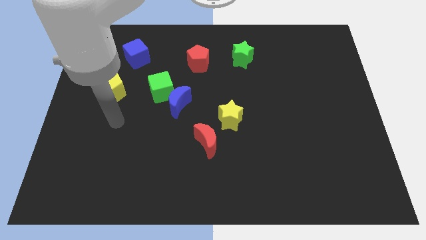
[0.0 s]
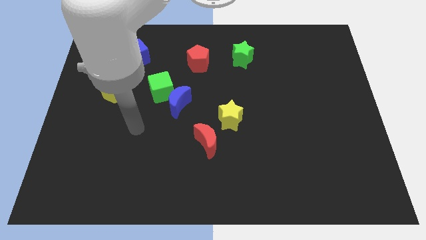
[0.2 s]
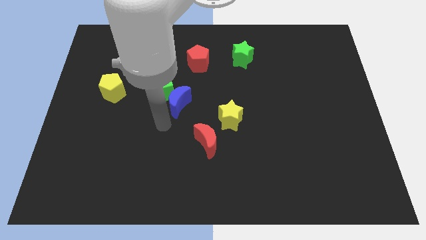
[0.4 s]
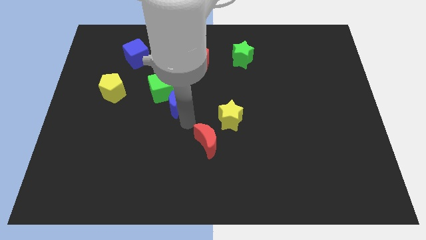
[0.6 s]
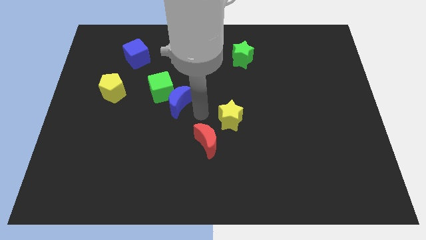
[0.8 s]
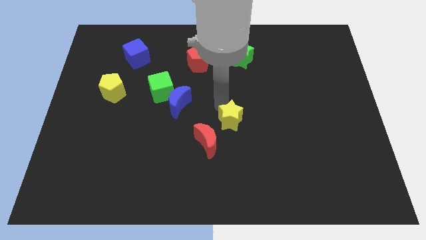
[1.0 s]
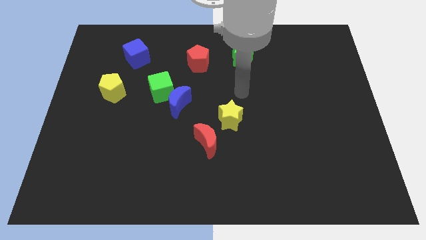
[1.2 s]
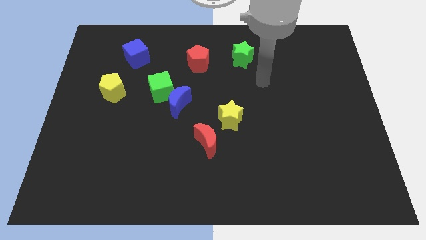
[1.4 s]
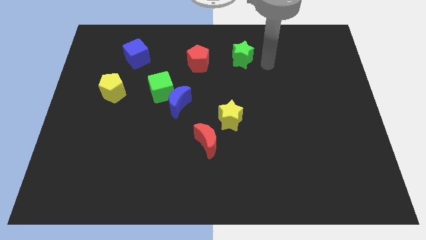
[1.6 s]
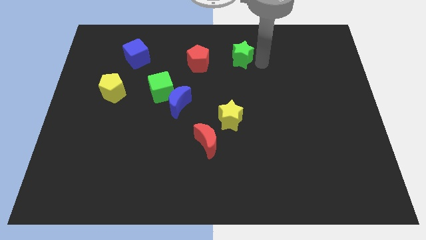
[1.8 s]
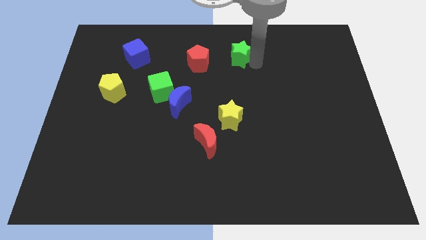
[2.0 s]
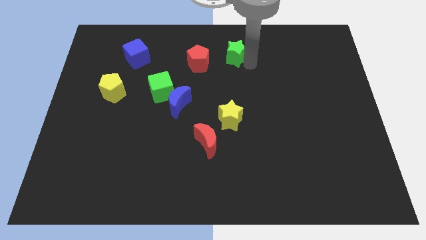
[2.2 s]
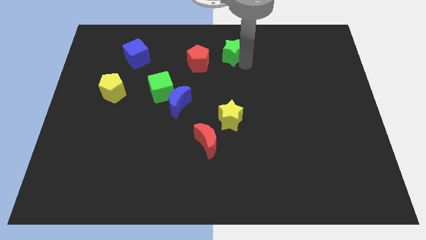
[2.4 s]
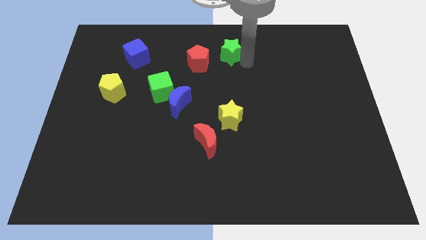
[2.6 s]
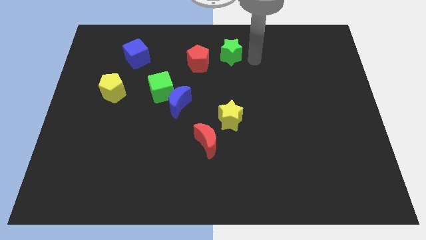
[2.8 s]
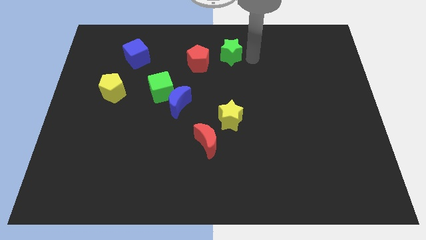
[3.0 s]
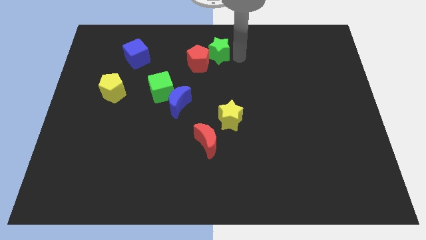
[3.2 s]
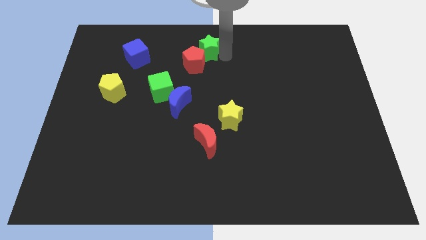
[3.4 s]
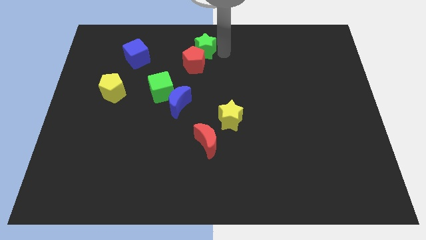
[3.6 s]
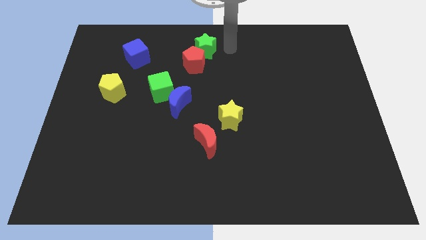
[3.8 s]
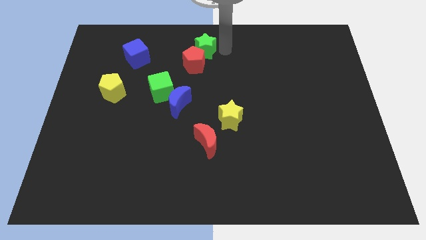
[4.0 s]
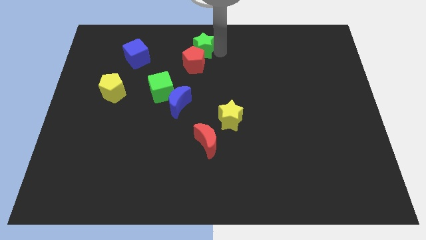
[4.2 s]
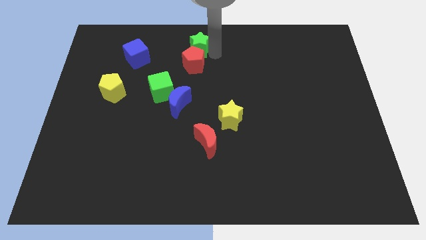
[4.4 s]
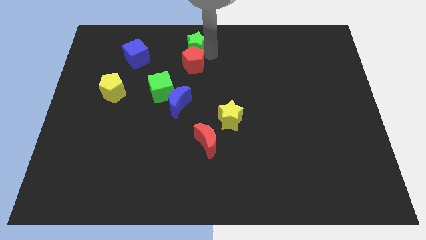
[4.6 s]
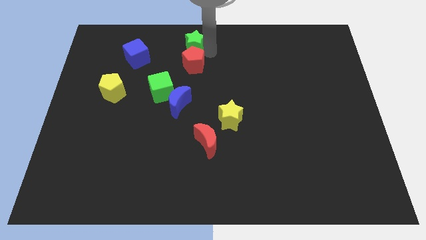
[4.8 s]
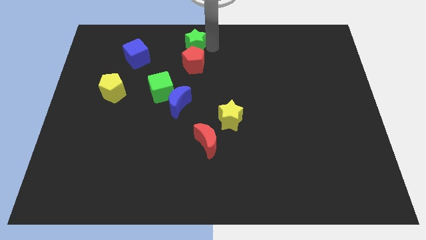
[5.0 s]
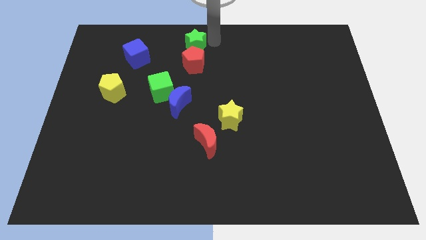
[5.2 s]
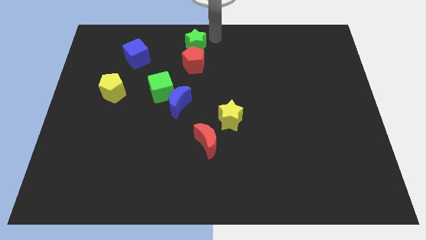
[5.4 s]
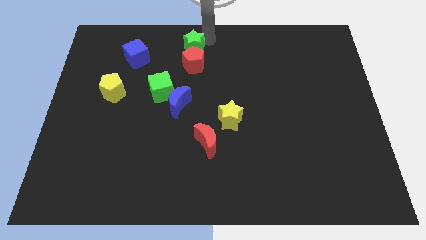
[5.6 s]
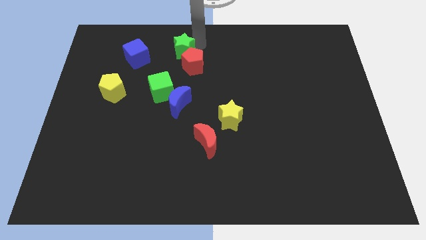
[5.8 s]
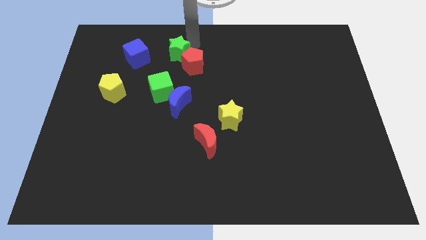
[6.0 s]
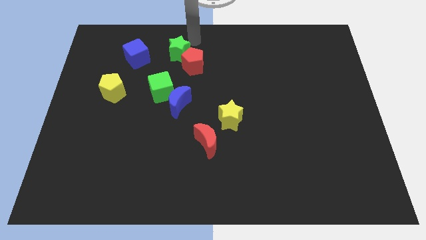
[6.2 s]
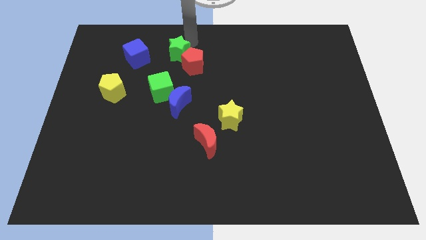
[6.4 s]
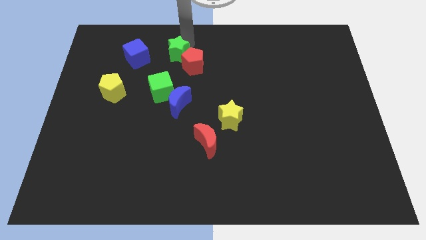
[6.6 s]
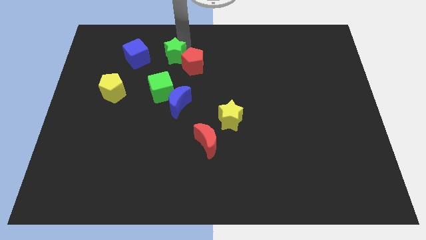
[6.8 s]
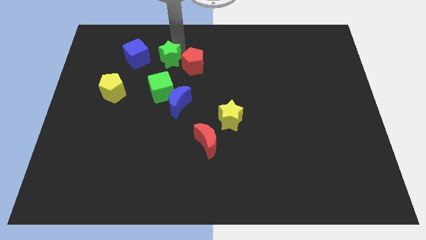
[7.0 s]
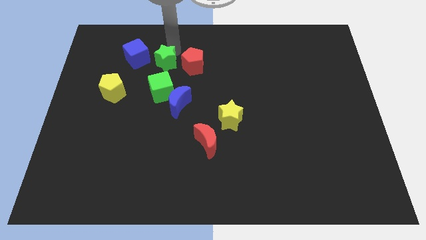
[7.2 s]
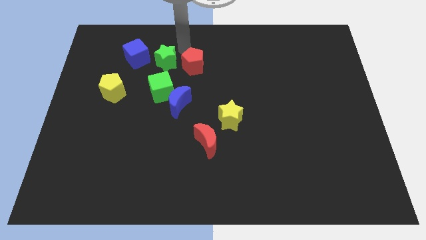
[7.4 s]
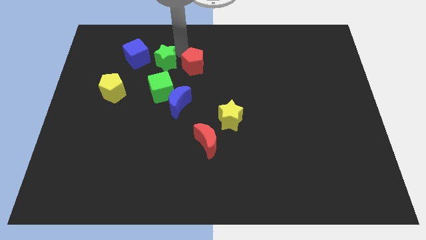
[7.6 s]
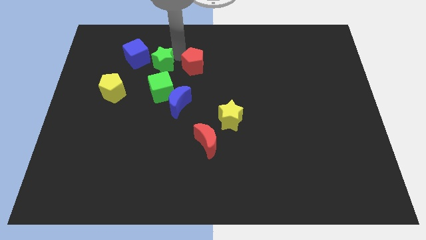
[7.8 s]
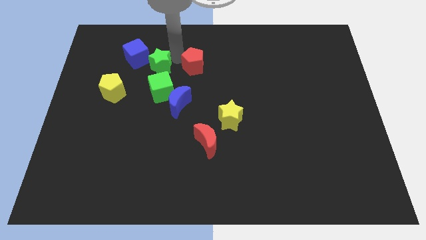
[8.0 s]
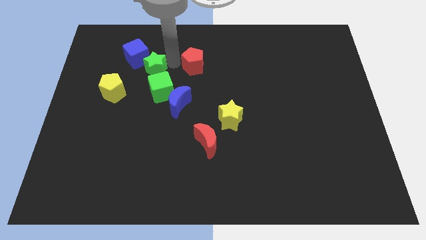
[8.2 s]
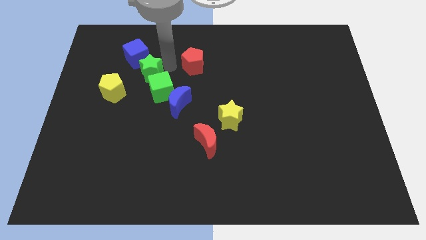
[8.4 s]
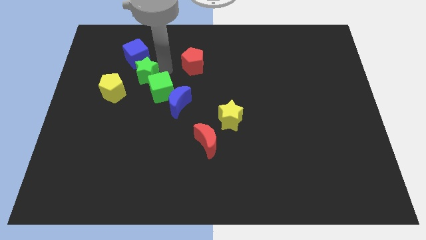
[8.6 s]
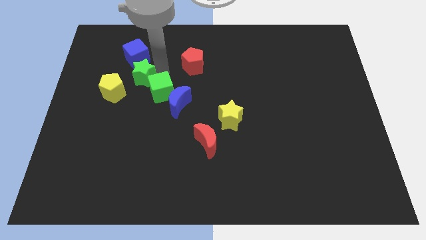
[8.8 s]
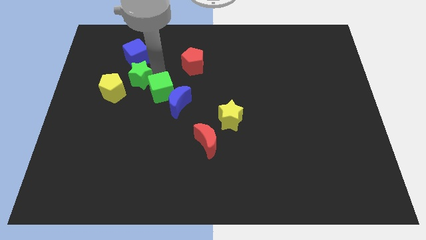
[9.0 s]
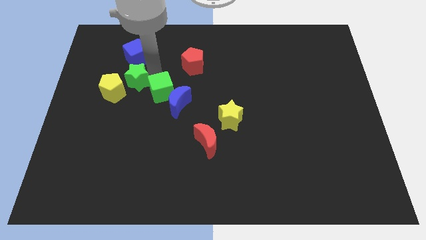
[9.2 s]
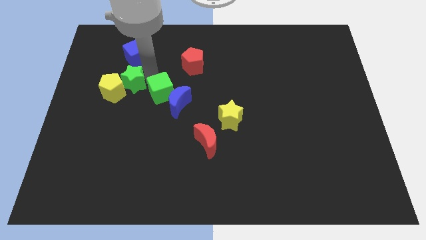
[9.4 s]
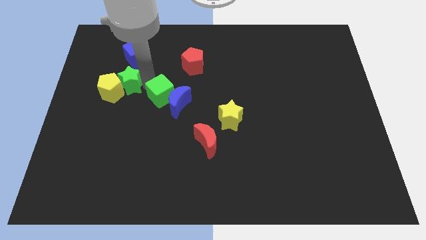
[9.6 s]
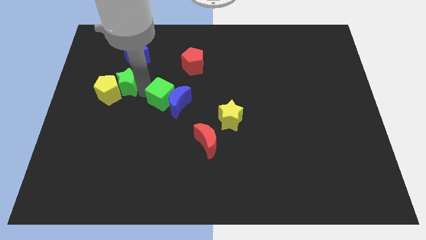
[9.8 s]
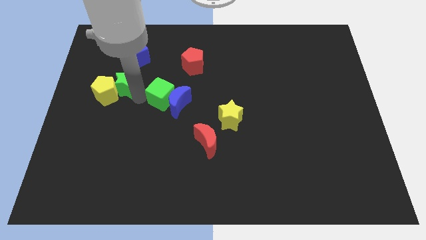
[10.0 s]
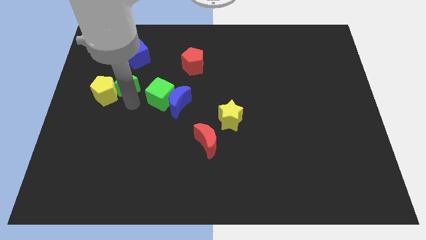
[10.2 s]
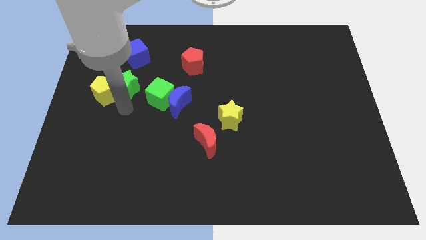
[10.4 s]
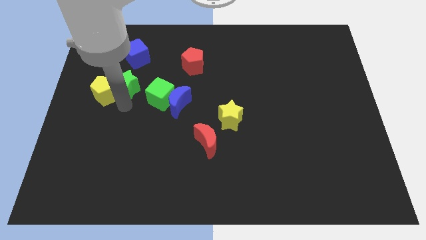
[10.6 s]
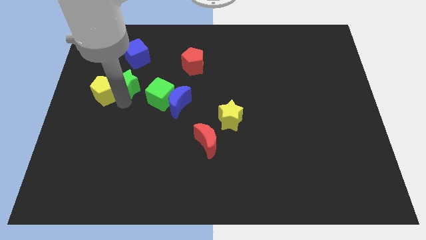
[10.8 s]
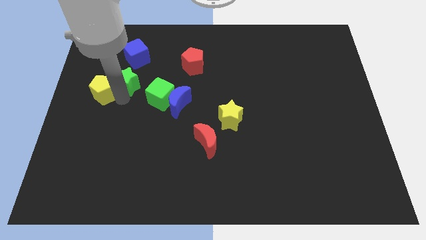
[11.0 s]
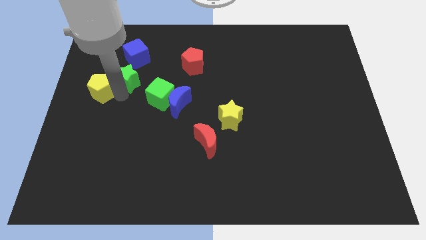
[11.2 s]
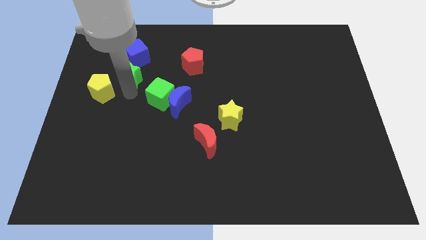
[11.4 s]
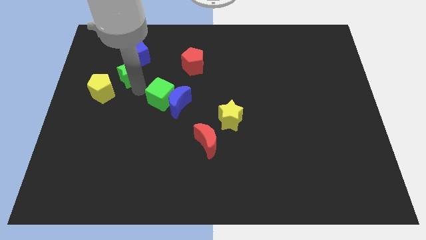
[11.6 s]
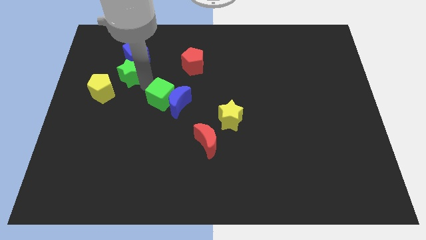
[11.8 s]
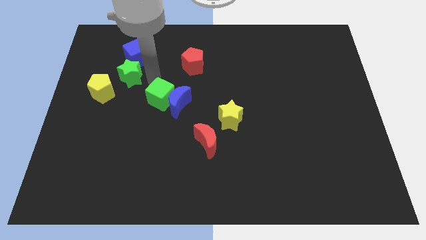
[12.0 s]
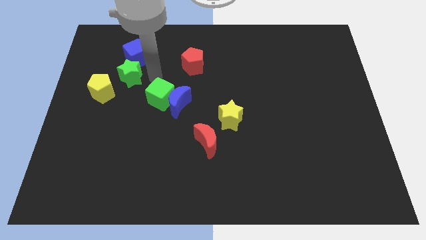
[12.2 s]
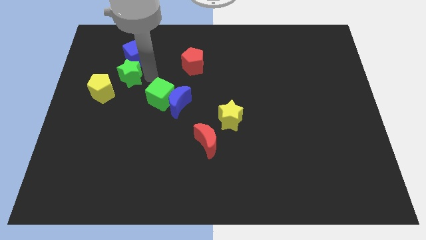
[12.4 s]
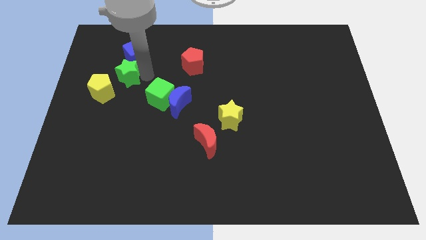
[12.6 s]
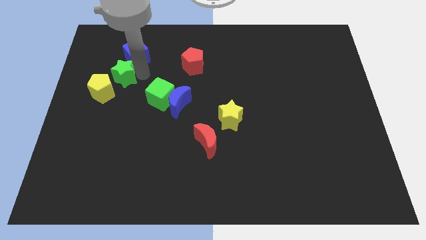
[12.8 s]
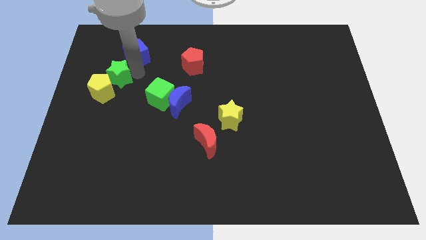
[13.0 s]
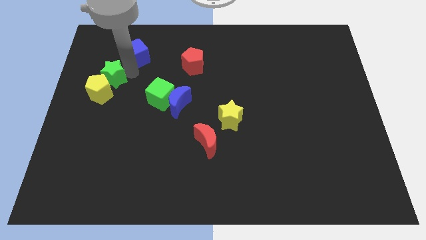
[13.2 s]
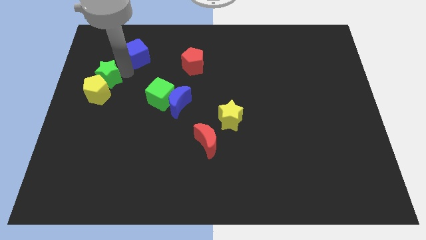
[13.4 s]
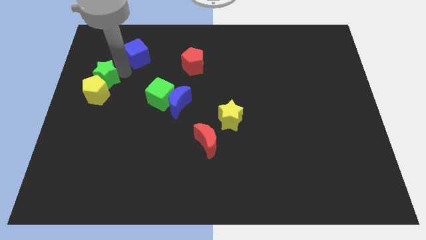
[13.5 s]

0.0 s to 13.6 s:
push the green star to the left side of the board

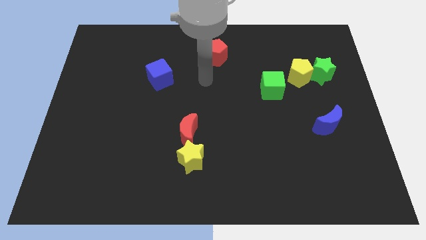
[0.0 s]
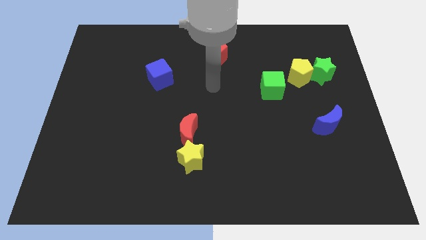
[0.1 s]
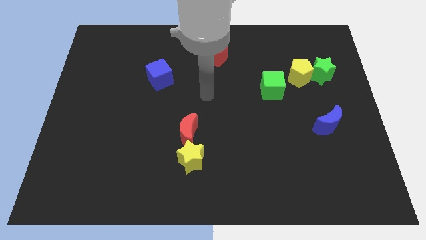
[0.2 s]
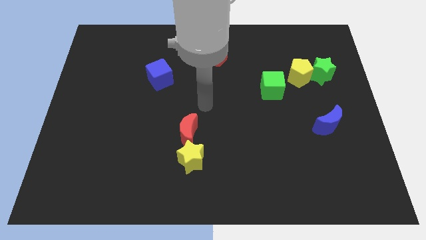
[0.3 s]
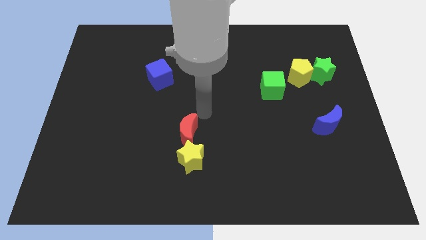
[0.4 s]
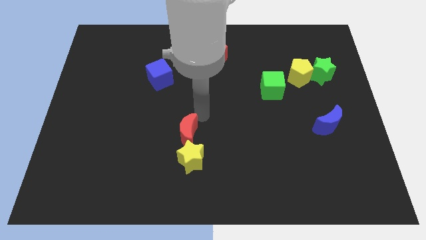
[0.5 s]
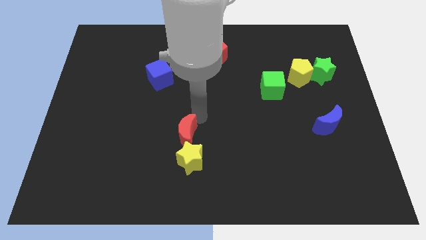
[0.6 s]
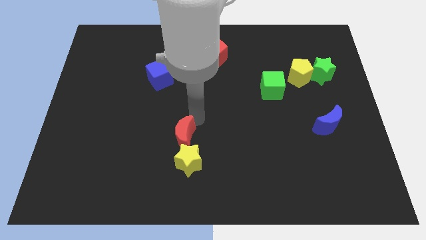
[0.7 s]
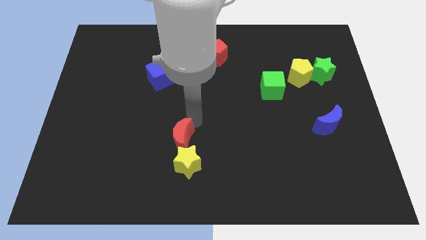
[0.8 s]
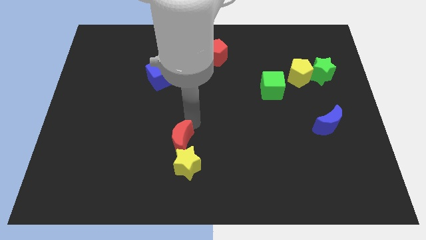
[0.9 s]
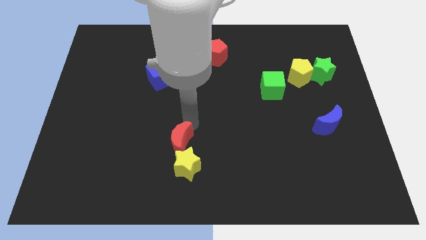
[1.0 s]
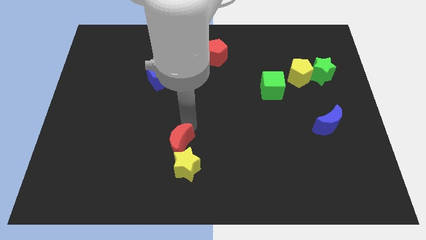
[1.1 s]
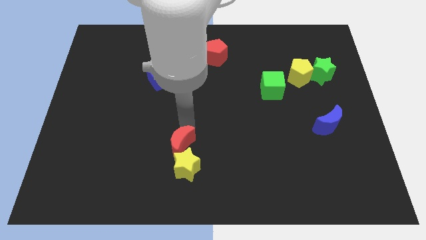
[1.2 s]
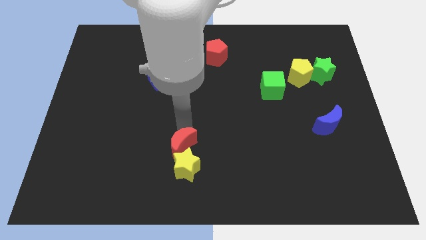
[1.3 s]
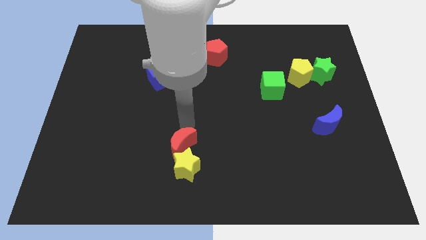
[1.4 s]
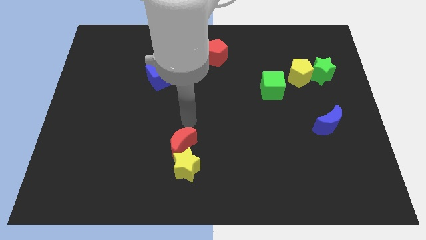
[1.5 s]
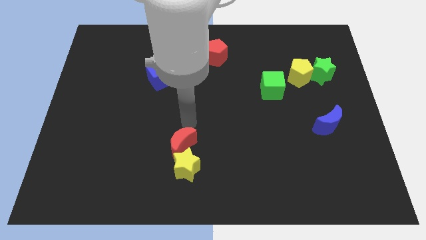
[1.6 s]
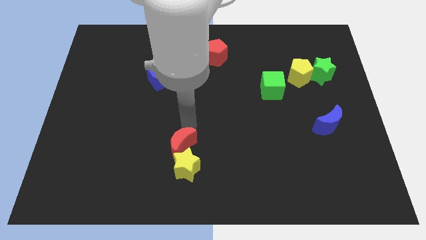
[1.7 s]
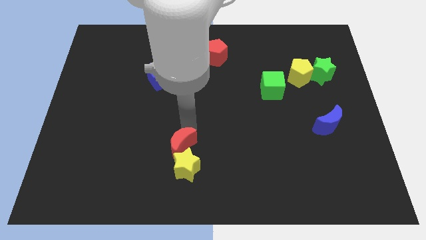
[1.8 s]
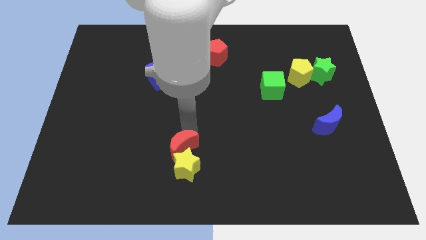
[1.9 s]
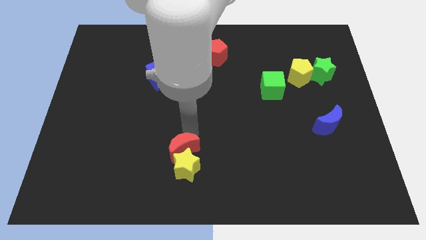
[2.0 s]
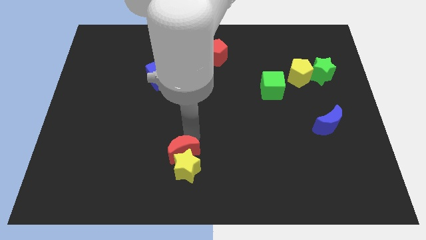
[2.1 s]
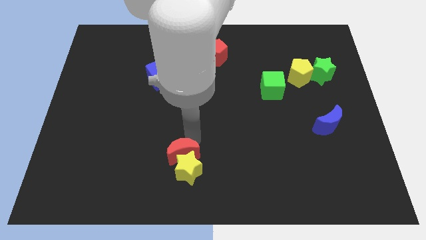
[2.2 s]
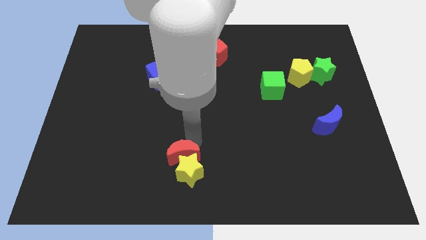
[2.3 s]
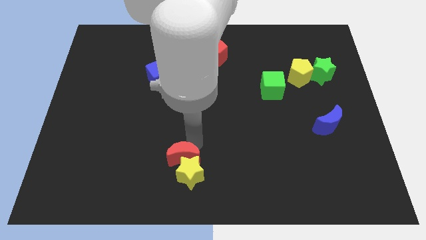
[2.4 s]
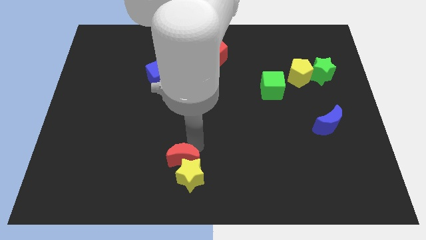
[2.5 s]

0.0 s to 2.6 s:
move the red moon to the bottom
